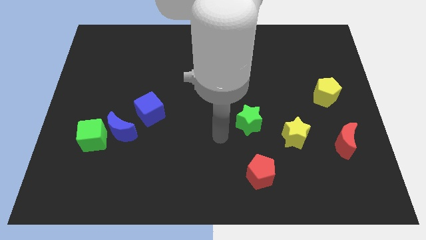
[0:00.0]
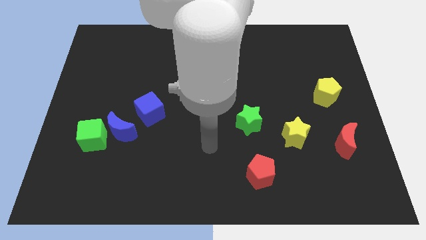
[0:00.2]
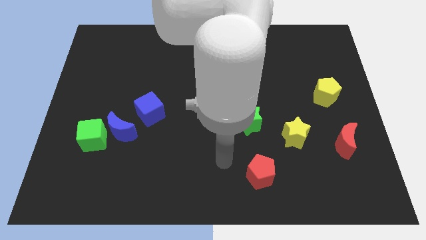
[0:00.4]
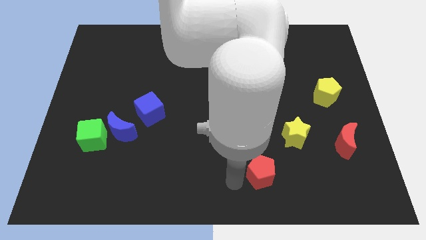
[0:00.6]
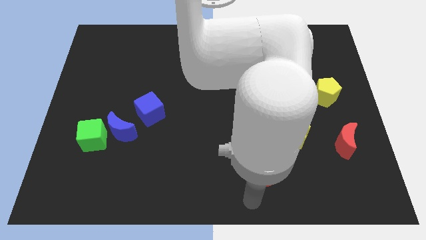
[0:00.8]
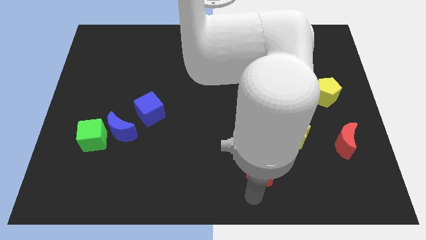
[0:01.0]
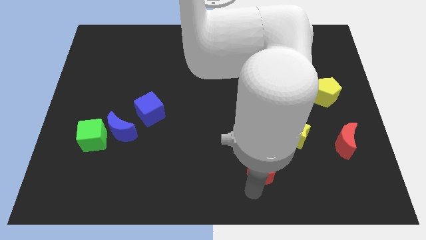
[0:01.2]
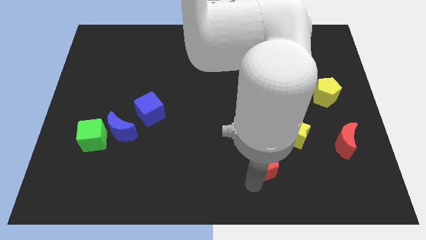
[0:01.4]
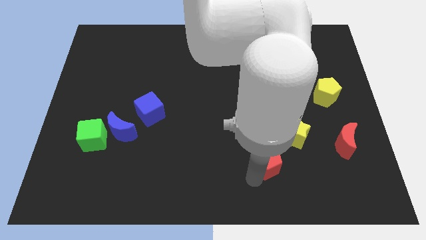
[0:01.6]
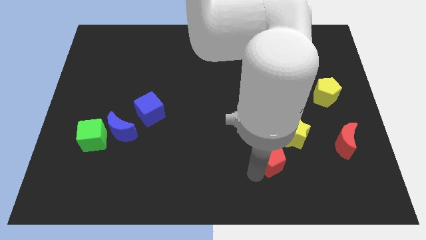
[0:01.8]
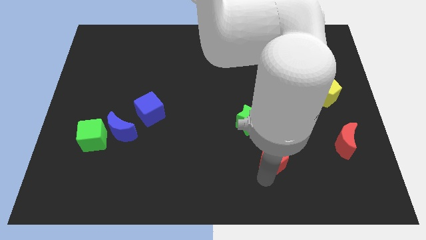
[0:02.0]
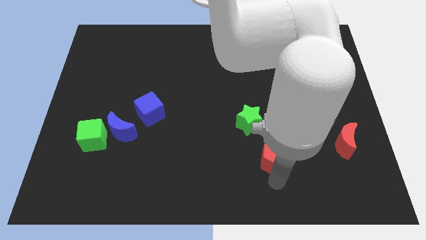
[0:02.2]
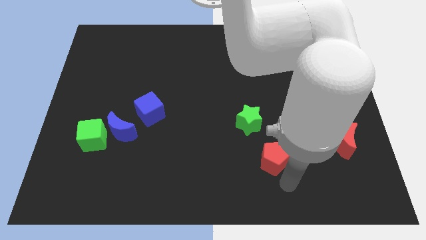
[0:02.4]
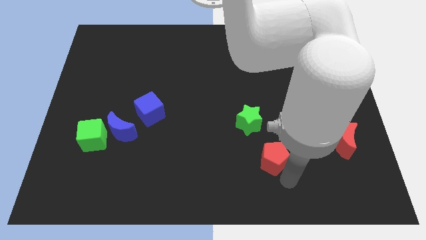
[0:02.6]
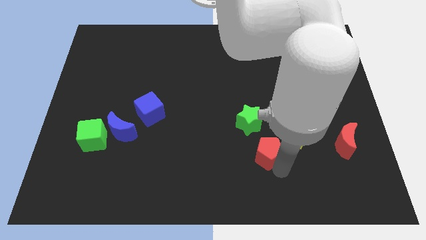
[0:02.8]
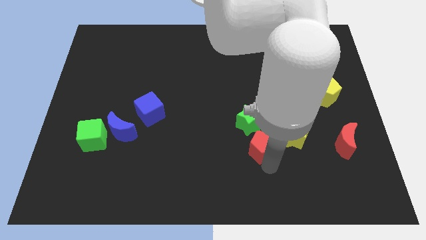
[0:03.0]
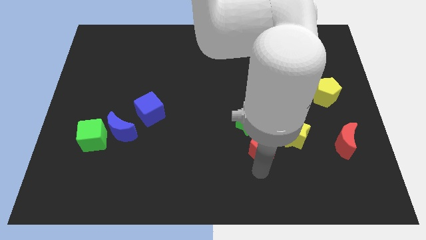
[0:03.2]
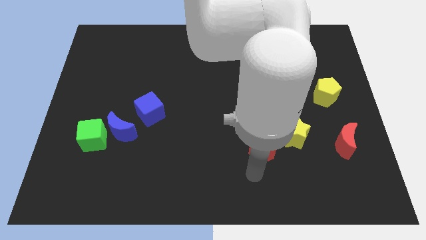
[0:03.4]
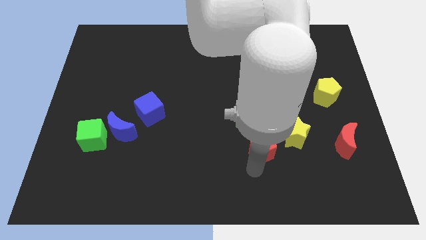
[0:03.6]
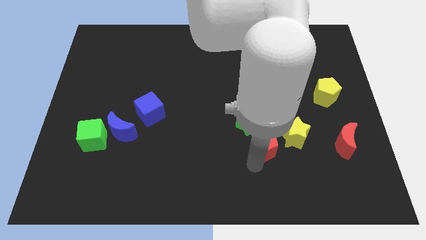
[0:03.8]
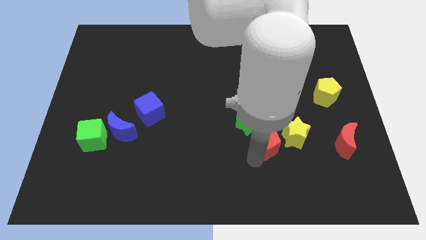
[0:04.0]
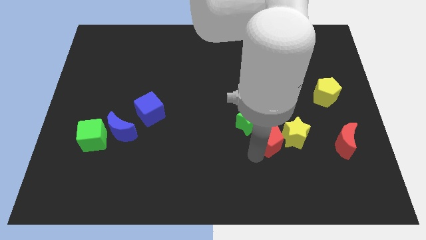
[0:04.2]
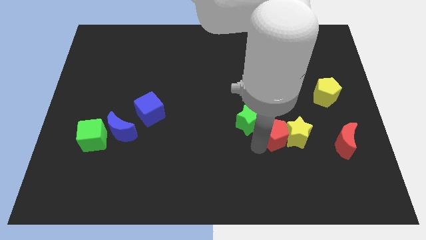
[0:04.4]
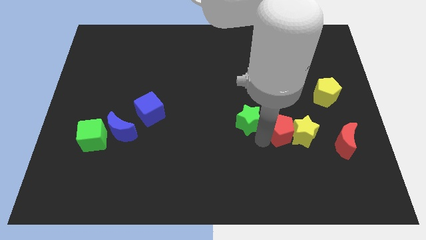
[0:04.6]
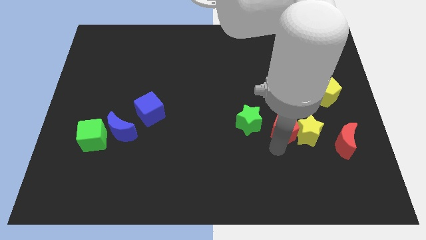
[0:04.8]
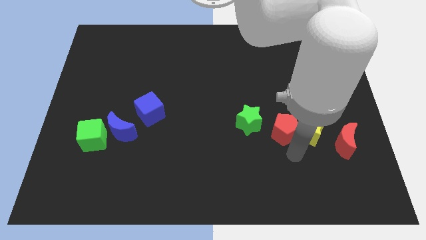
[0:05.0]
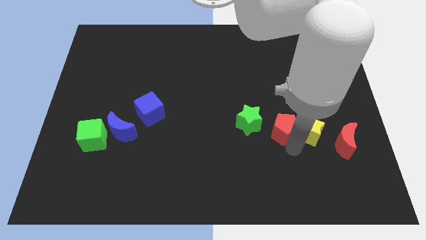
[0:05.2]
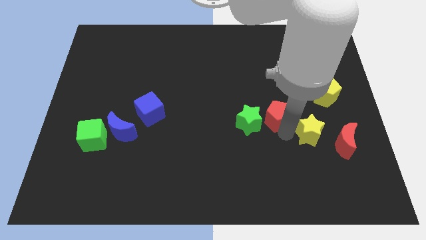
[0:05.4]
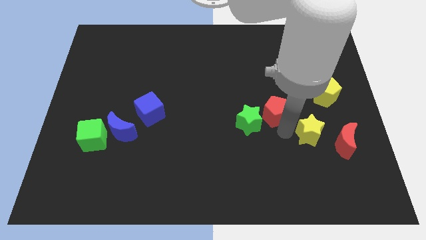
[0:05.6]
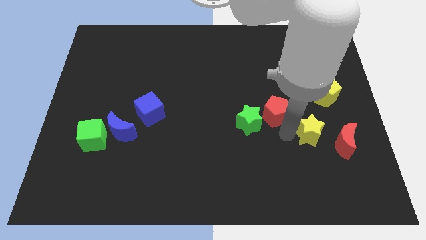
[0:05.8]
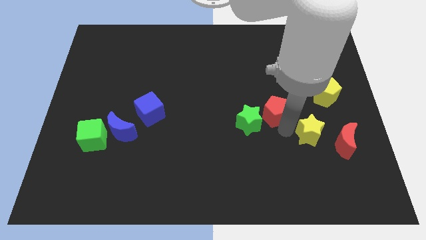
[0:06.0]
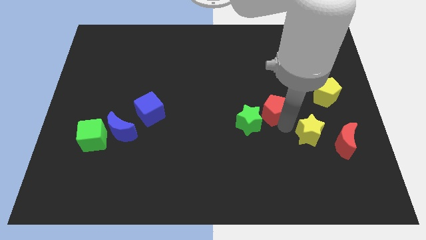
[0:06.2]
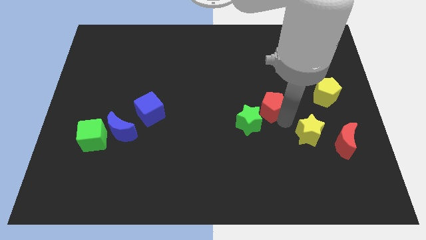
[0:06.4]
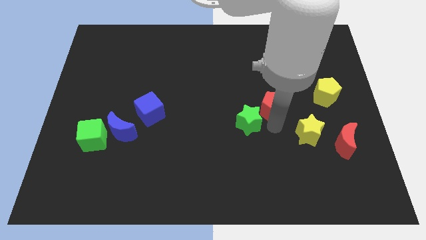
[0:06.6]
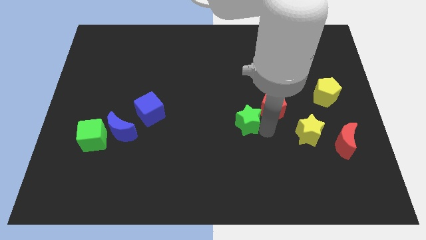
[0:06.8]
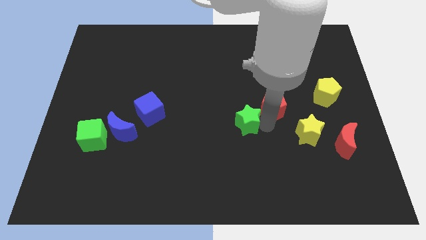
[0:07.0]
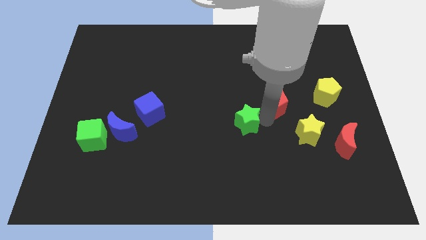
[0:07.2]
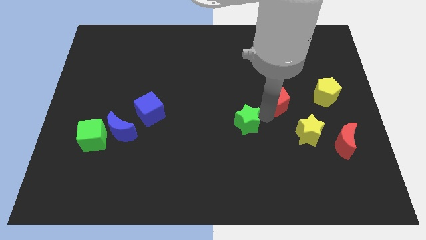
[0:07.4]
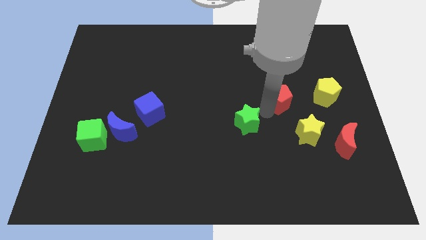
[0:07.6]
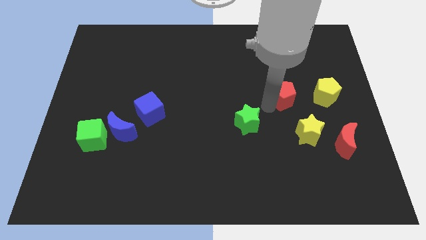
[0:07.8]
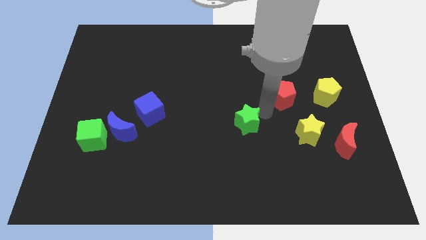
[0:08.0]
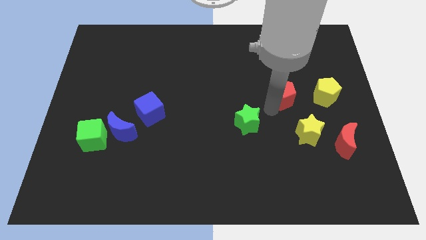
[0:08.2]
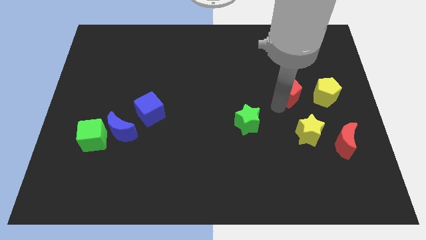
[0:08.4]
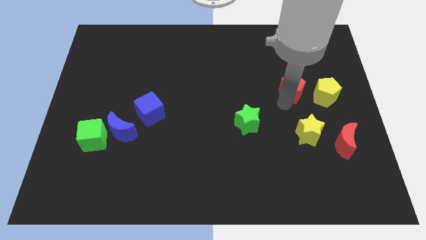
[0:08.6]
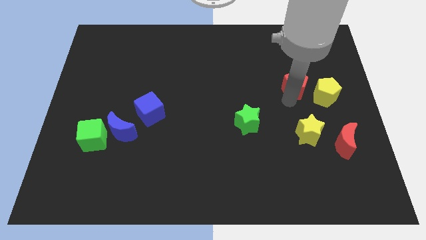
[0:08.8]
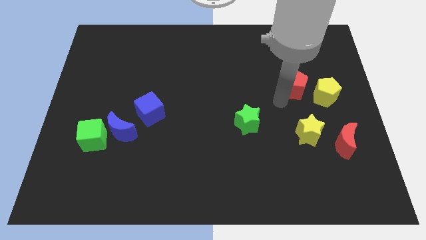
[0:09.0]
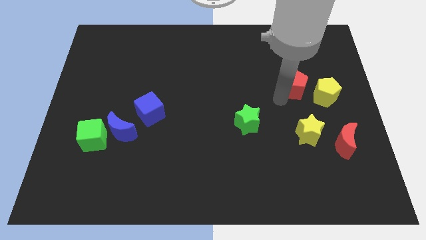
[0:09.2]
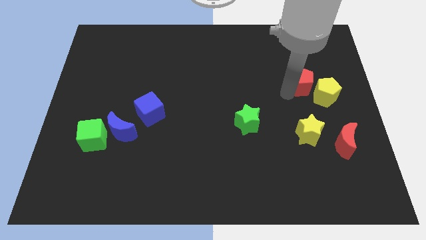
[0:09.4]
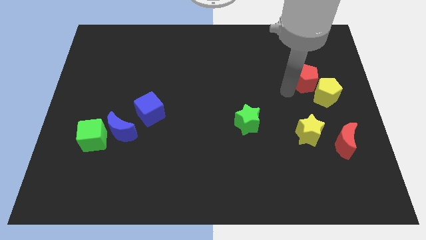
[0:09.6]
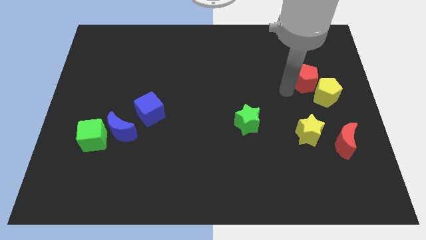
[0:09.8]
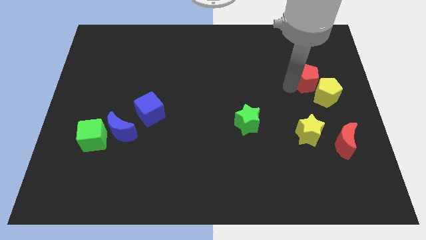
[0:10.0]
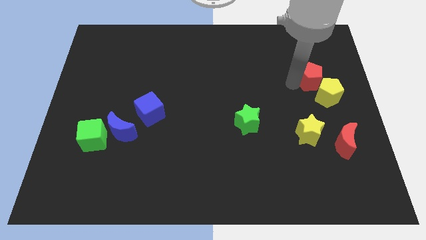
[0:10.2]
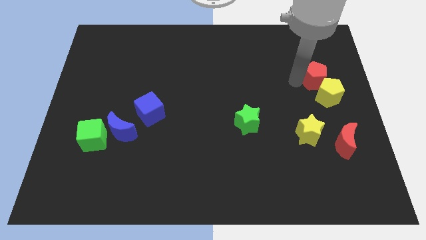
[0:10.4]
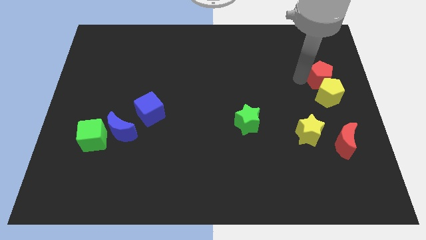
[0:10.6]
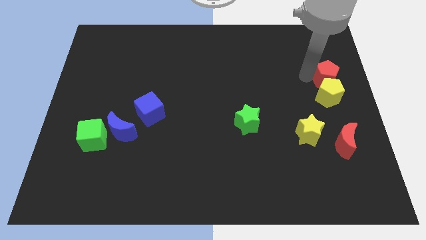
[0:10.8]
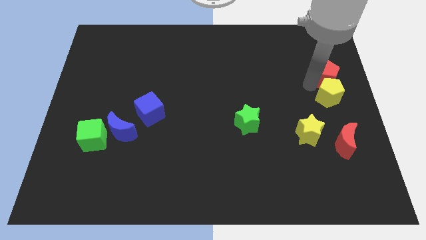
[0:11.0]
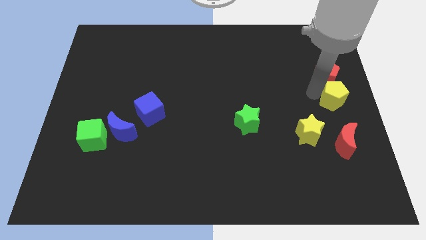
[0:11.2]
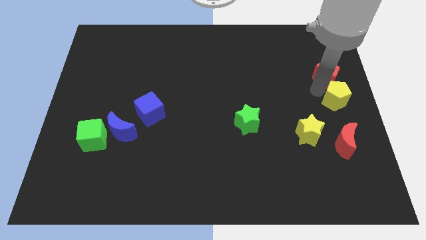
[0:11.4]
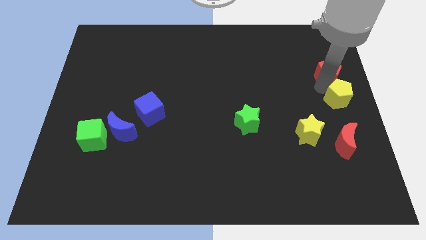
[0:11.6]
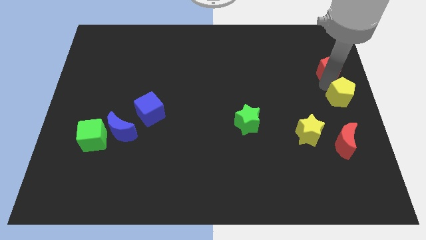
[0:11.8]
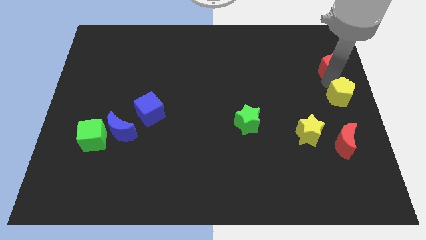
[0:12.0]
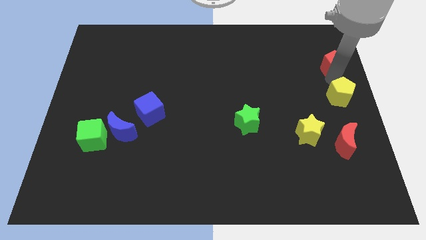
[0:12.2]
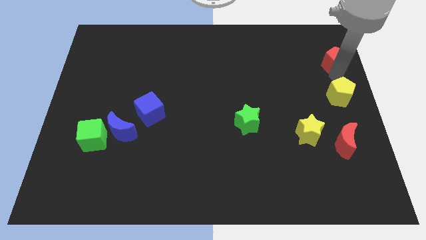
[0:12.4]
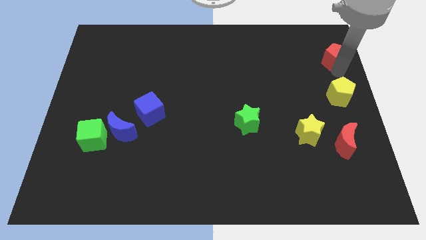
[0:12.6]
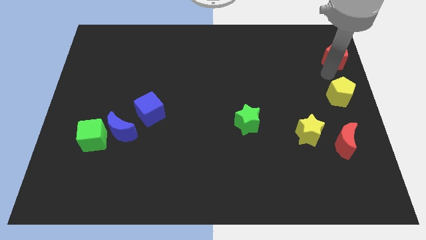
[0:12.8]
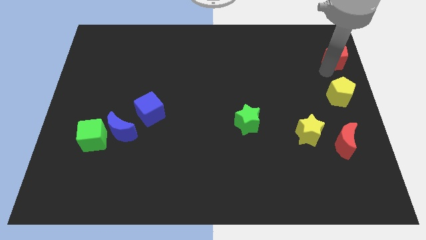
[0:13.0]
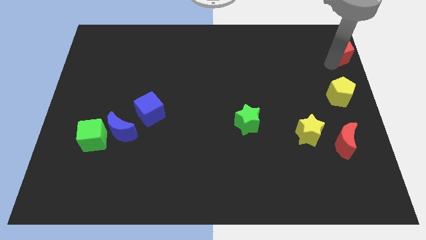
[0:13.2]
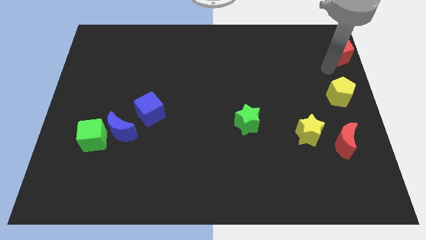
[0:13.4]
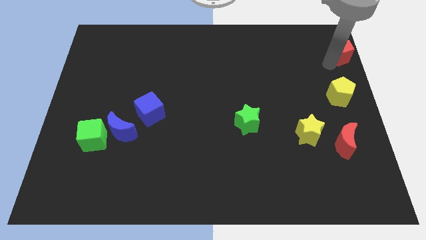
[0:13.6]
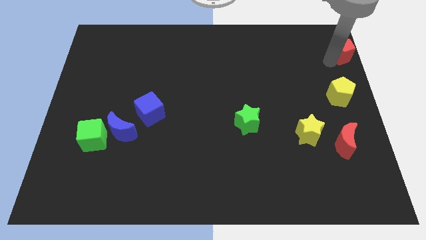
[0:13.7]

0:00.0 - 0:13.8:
slide the red pentagon to the top right of the board
